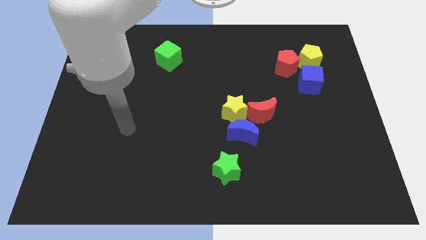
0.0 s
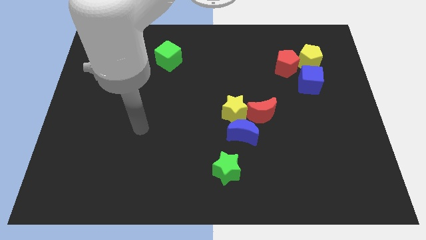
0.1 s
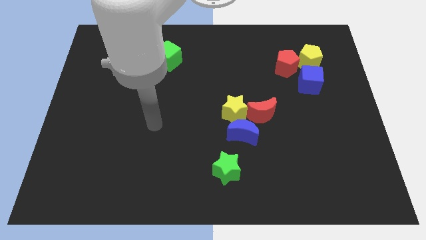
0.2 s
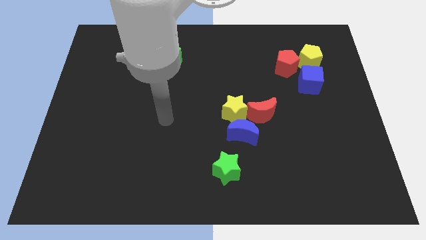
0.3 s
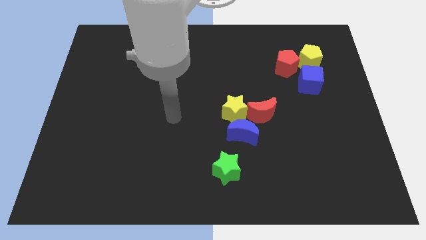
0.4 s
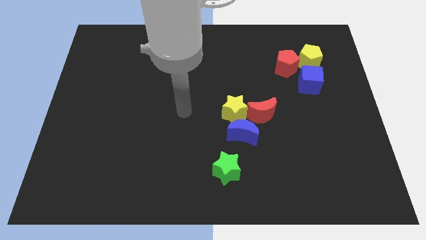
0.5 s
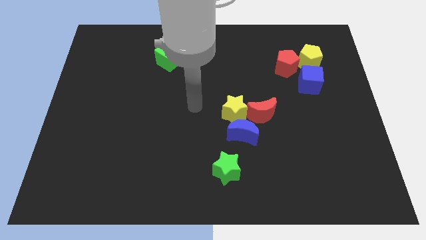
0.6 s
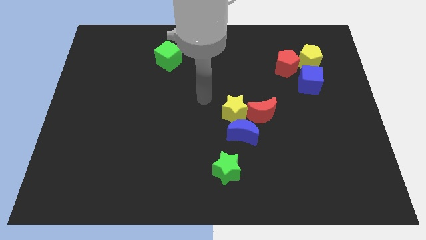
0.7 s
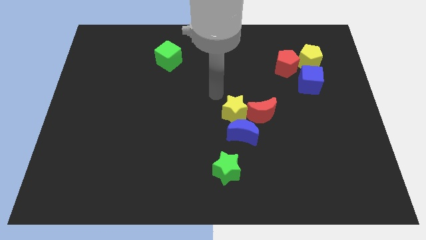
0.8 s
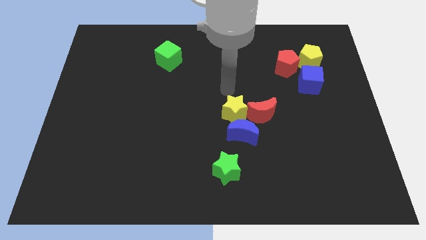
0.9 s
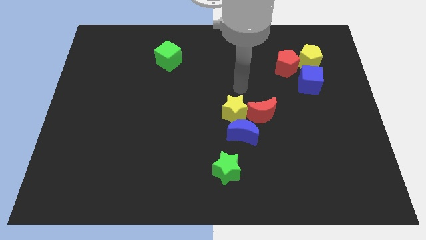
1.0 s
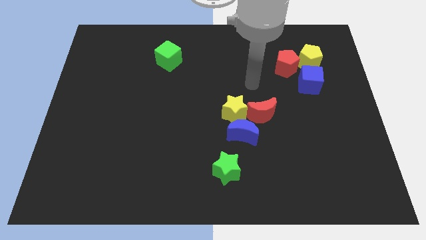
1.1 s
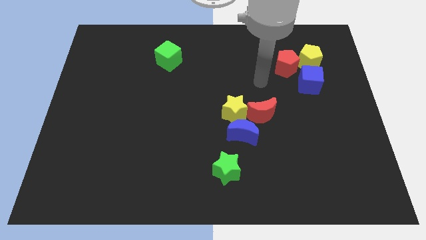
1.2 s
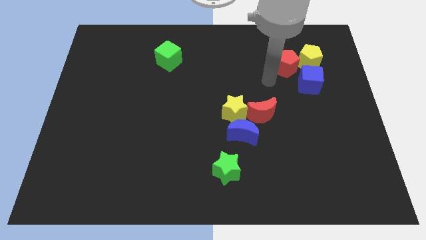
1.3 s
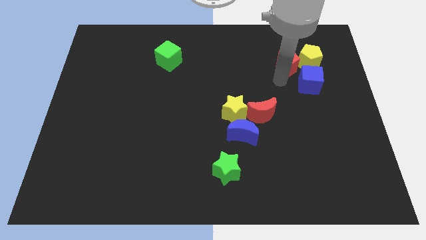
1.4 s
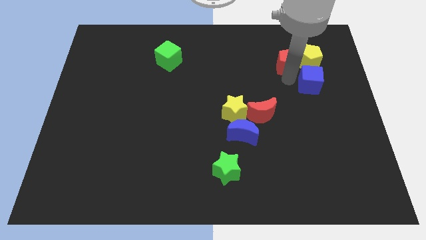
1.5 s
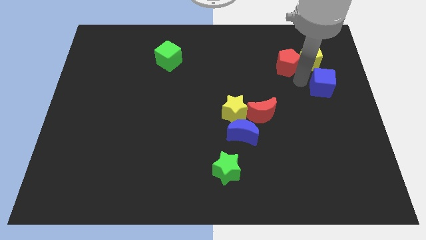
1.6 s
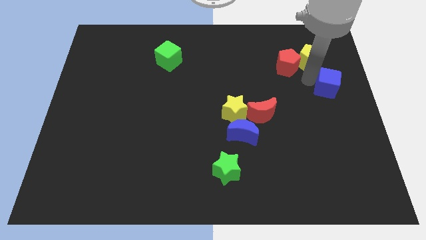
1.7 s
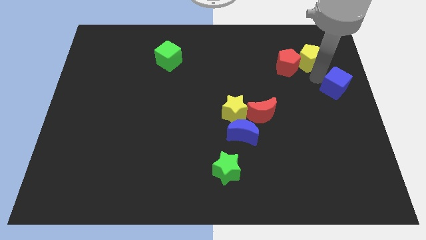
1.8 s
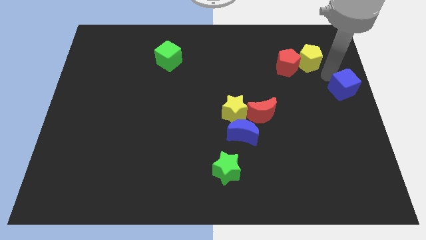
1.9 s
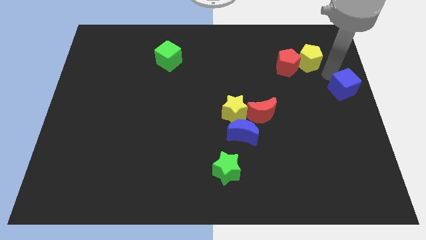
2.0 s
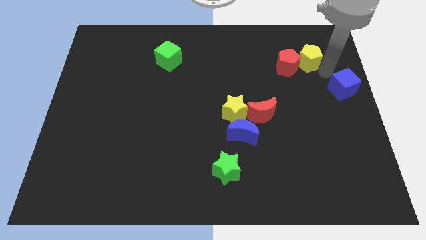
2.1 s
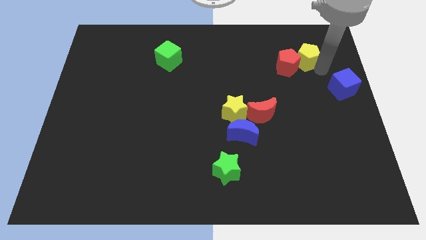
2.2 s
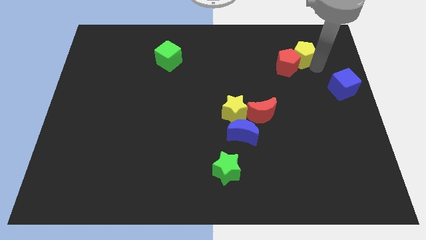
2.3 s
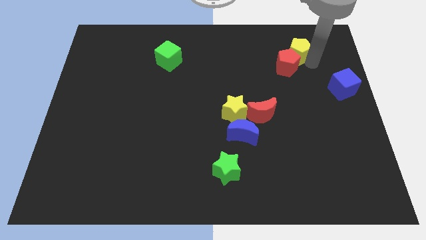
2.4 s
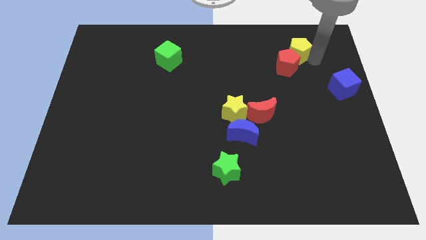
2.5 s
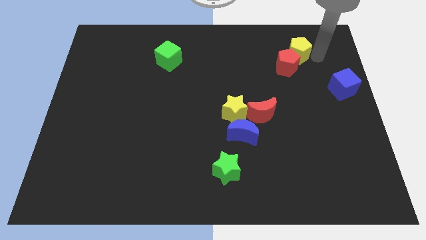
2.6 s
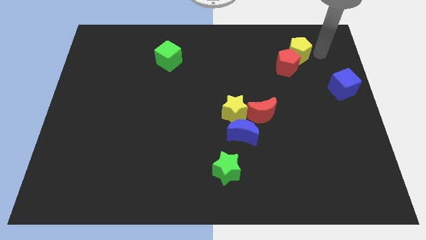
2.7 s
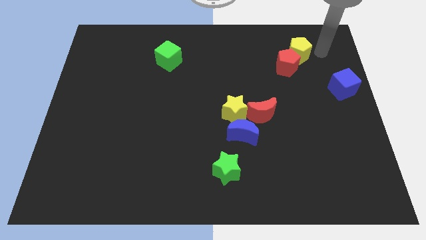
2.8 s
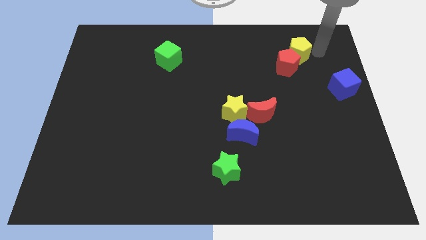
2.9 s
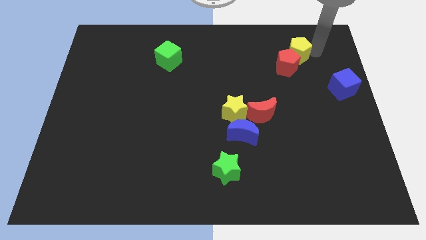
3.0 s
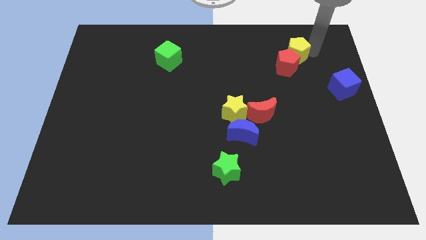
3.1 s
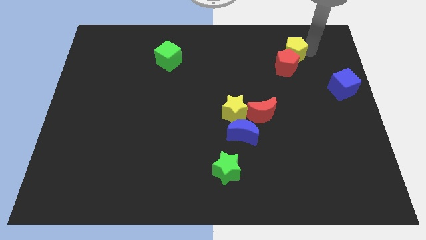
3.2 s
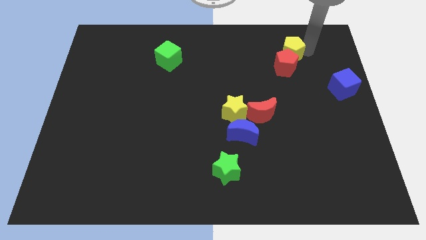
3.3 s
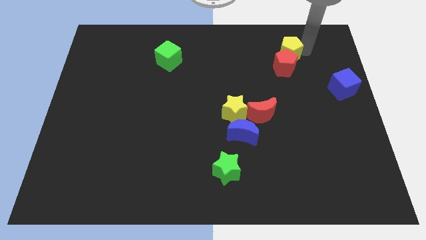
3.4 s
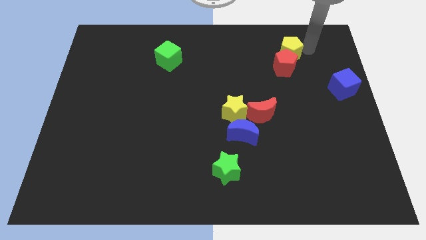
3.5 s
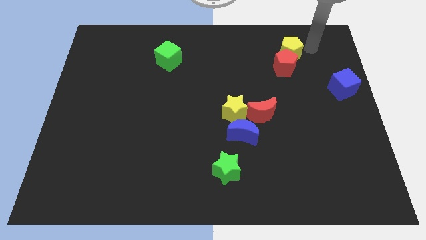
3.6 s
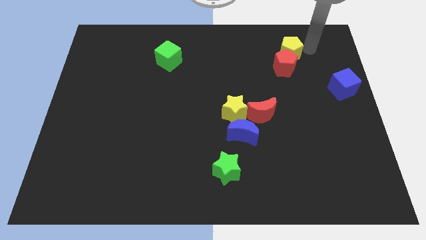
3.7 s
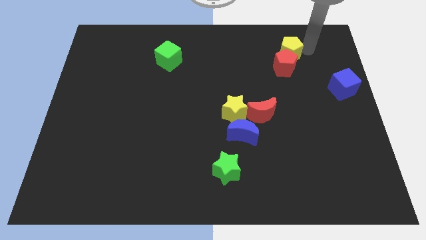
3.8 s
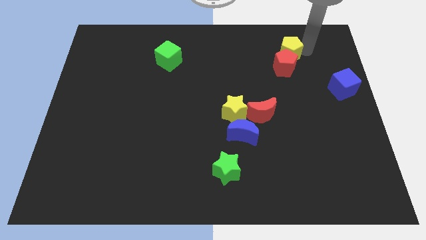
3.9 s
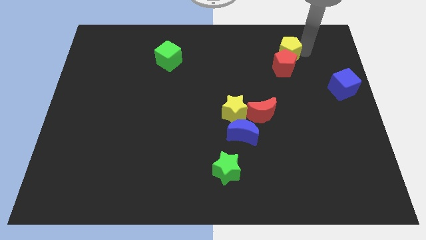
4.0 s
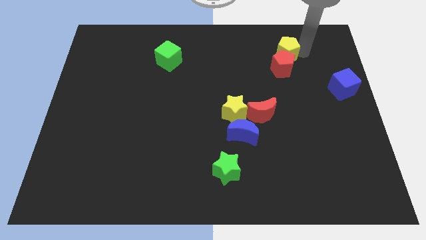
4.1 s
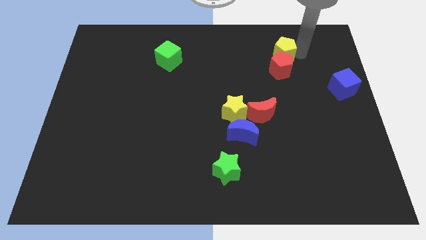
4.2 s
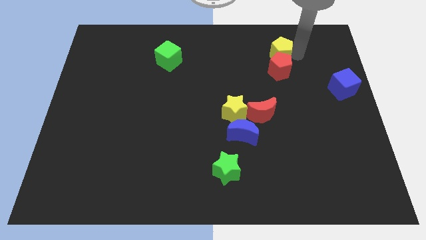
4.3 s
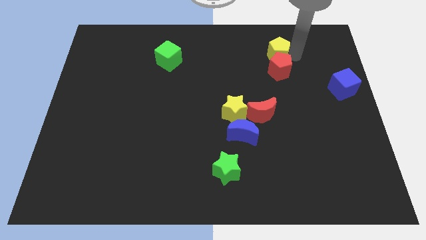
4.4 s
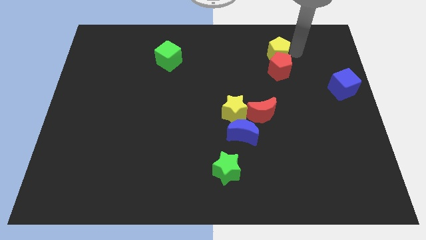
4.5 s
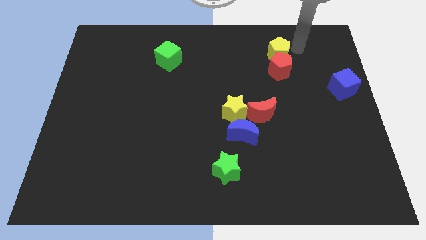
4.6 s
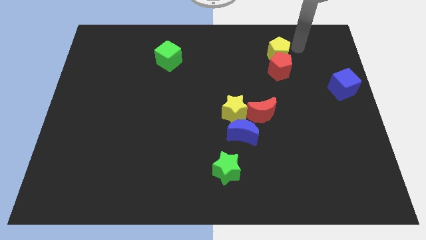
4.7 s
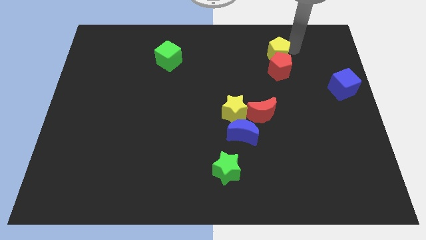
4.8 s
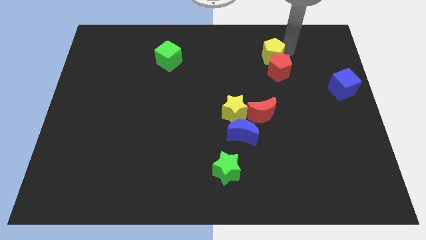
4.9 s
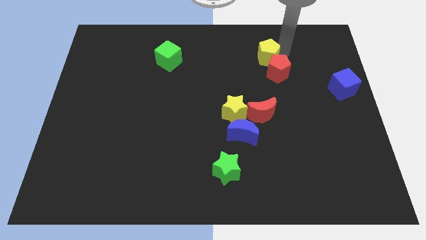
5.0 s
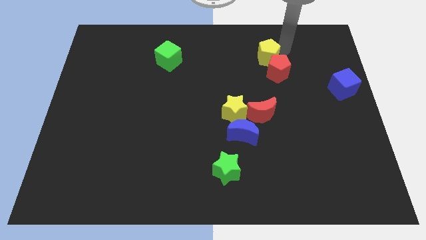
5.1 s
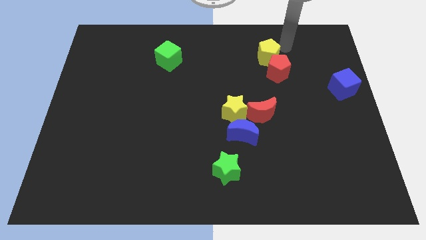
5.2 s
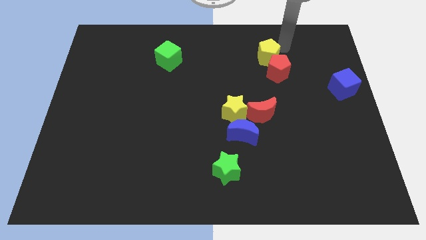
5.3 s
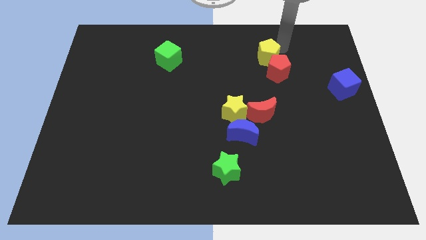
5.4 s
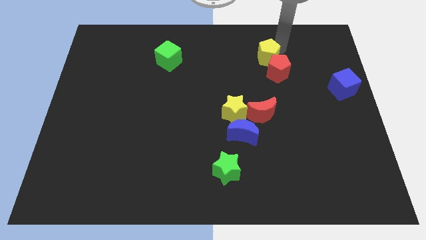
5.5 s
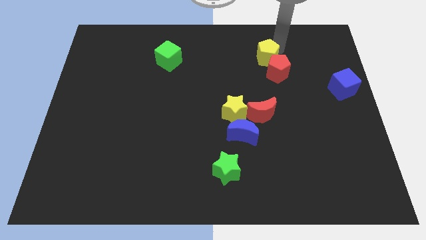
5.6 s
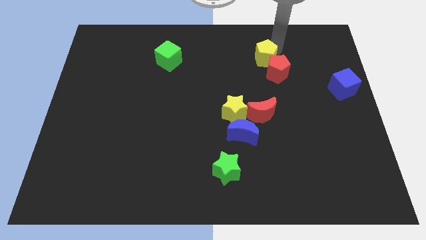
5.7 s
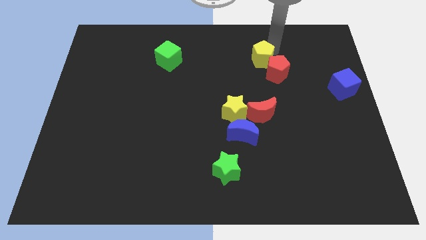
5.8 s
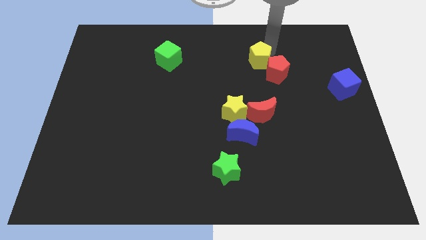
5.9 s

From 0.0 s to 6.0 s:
push the yellow pentagon to the left of the red pentagon

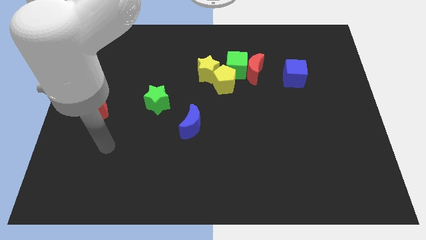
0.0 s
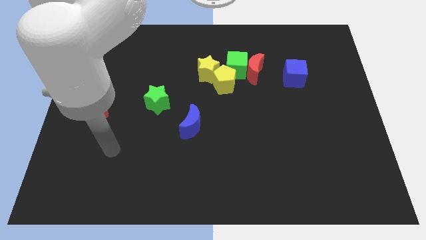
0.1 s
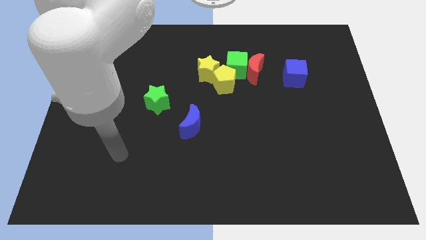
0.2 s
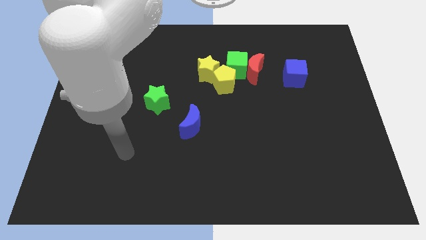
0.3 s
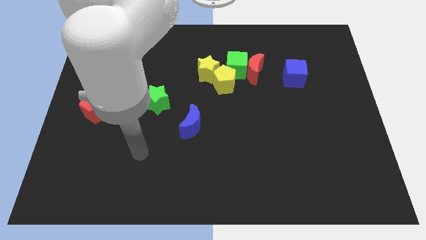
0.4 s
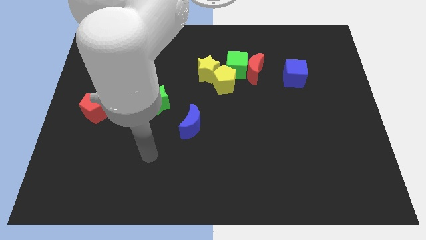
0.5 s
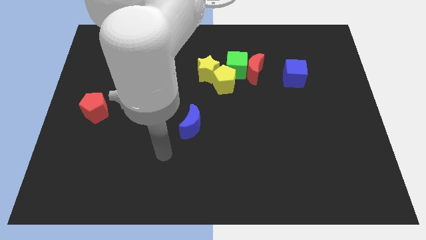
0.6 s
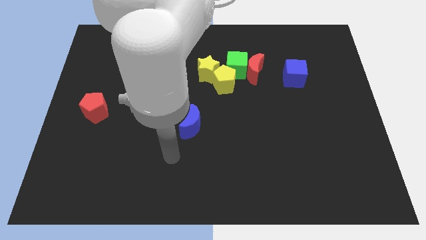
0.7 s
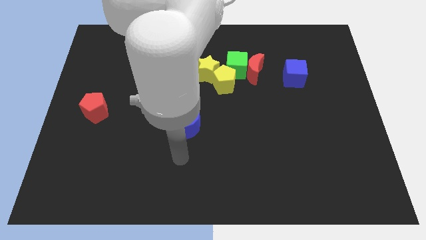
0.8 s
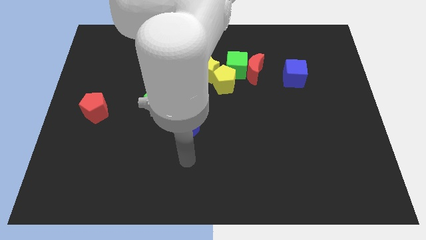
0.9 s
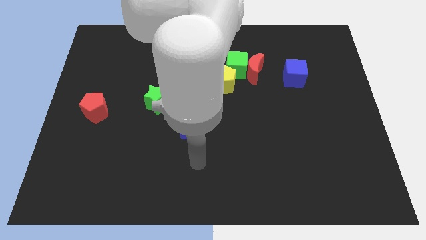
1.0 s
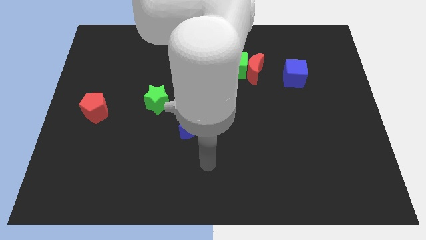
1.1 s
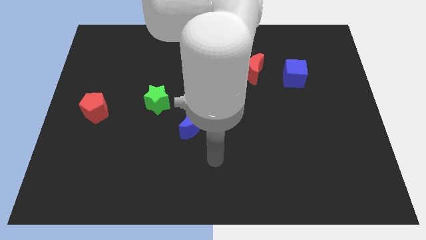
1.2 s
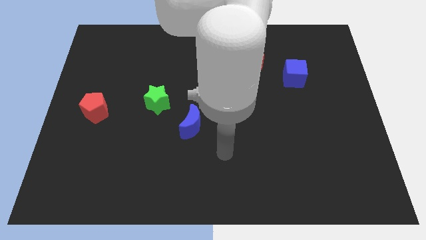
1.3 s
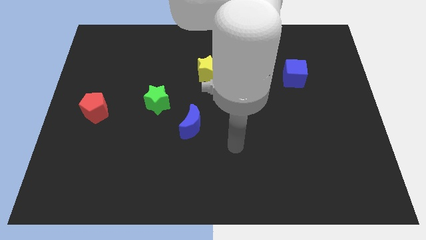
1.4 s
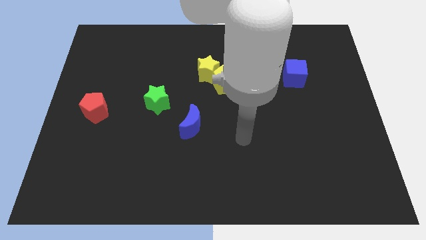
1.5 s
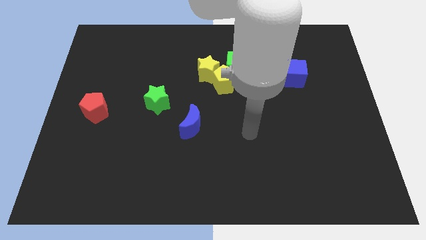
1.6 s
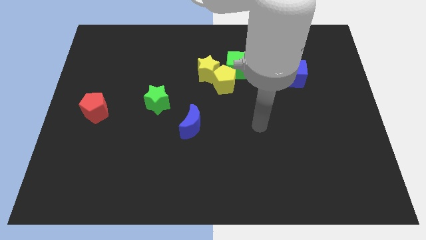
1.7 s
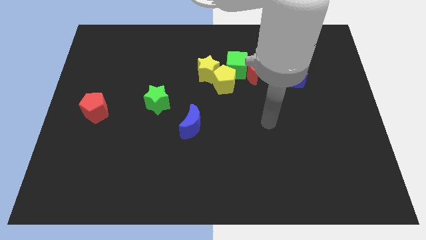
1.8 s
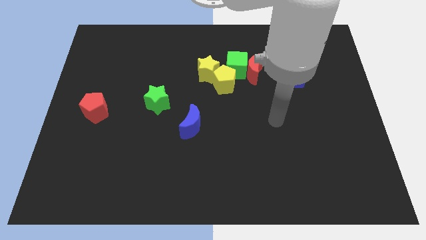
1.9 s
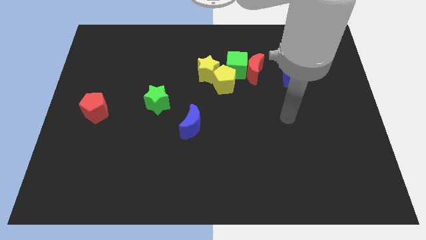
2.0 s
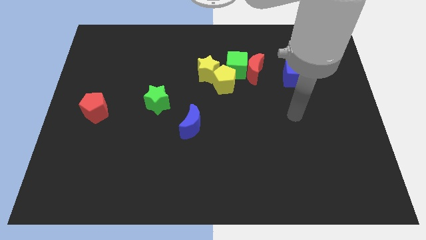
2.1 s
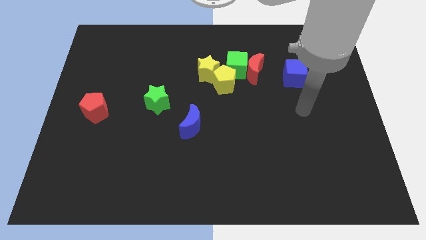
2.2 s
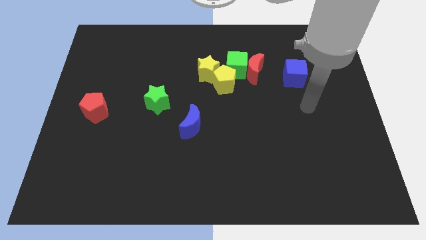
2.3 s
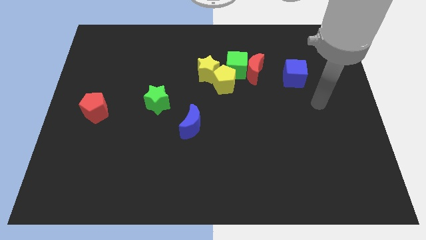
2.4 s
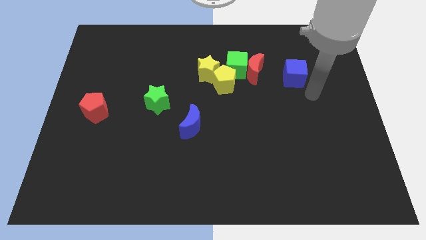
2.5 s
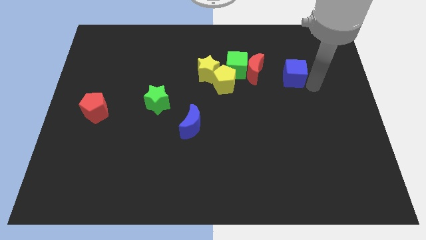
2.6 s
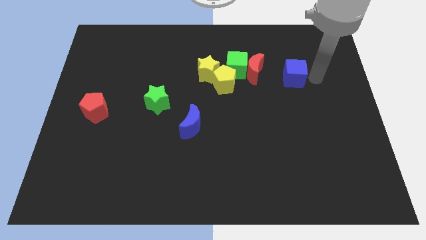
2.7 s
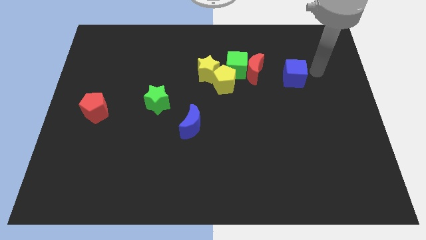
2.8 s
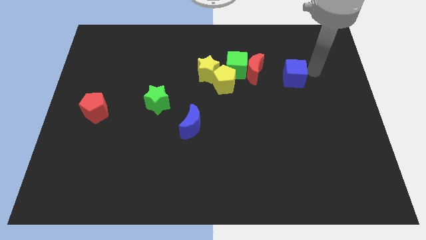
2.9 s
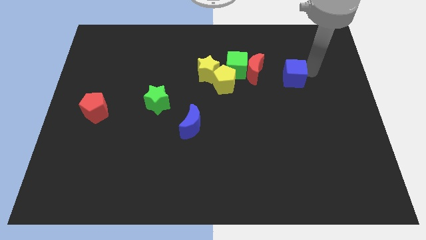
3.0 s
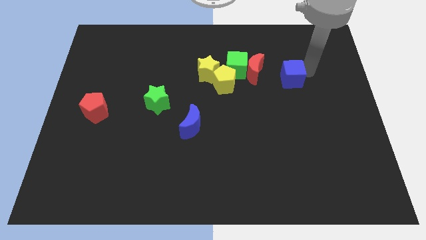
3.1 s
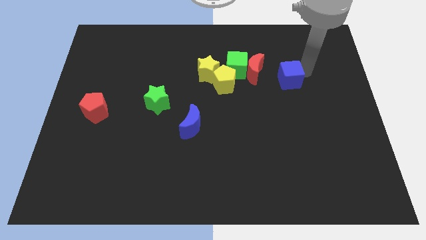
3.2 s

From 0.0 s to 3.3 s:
put the blue cube just right of the yellow pentagon
